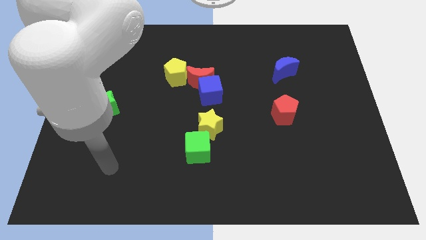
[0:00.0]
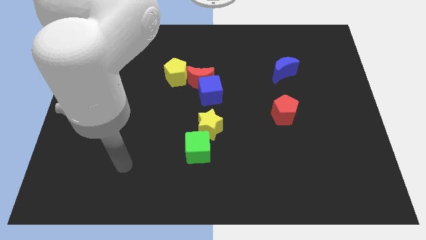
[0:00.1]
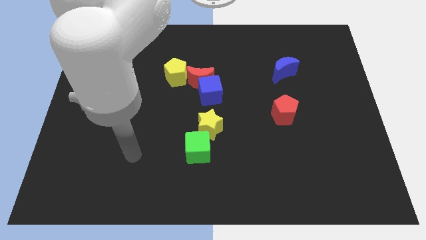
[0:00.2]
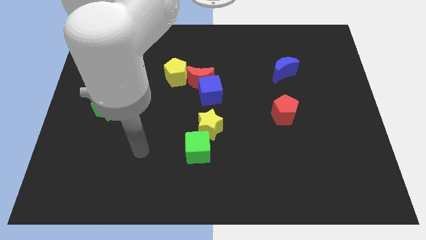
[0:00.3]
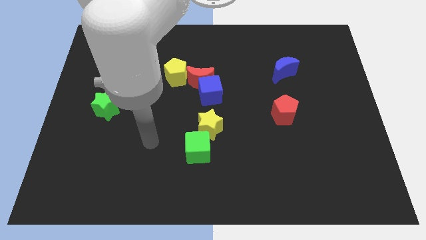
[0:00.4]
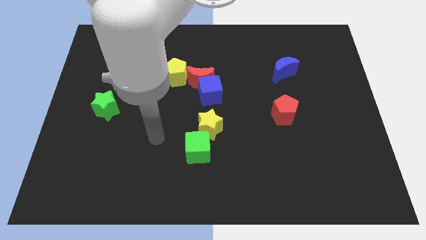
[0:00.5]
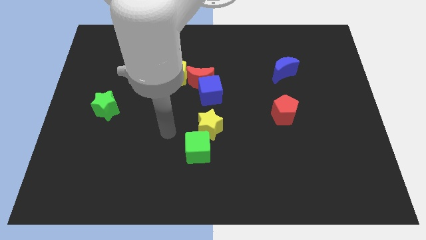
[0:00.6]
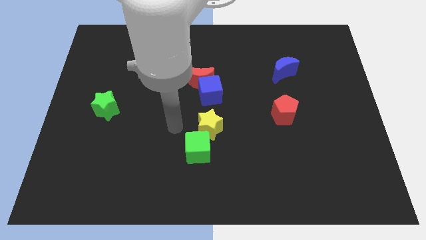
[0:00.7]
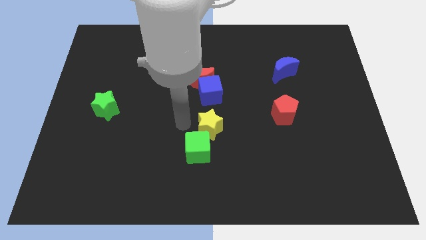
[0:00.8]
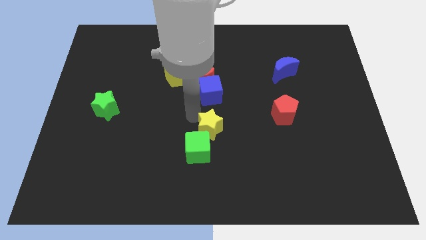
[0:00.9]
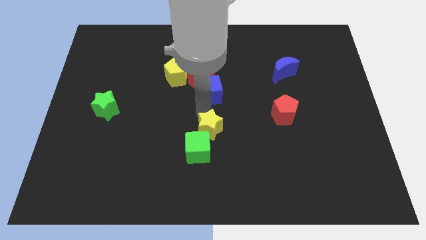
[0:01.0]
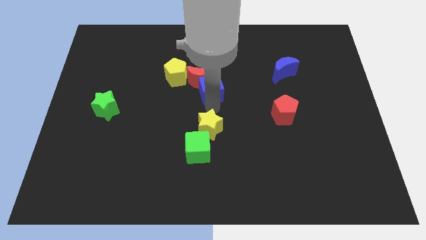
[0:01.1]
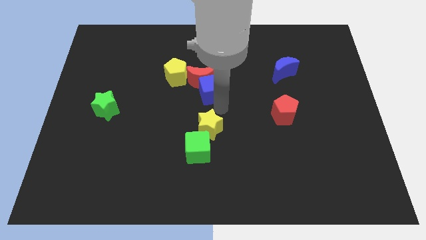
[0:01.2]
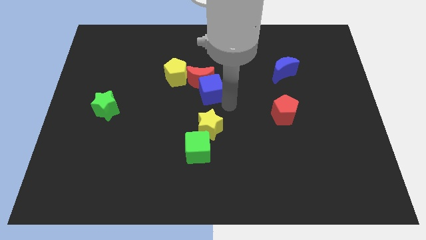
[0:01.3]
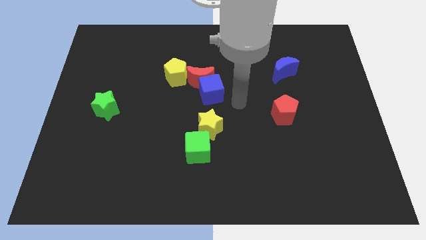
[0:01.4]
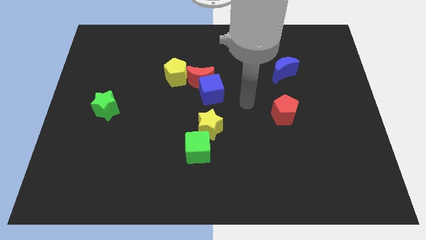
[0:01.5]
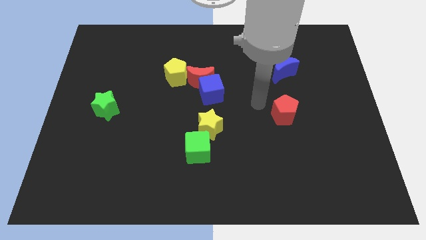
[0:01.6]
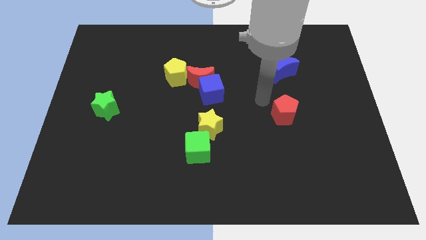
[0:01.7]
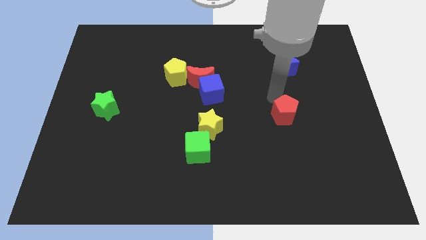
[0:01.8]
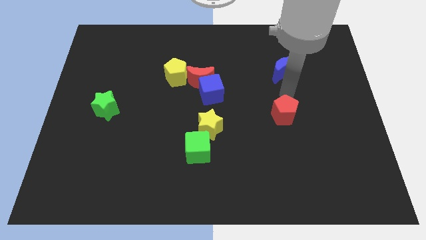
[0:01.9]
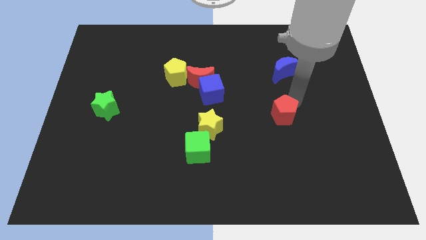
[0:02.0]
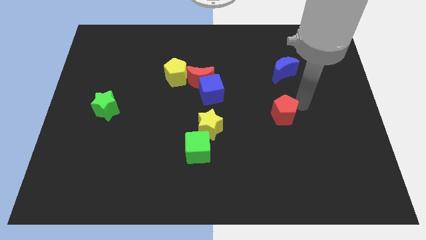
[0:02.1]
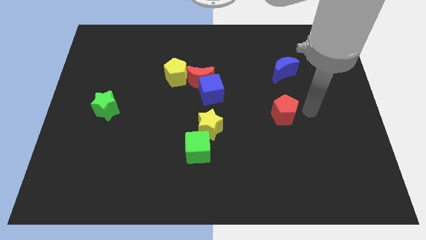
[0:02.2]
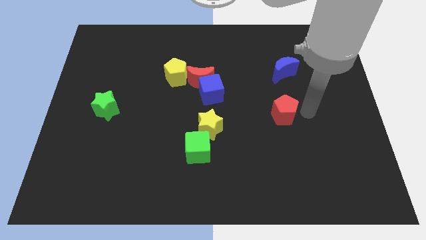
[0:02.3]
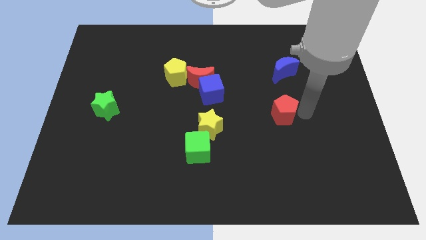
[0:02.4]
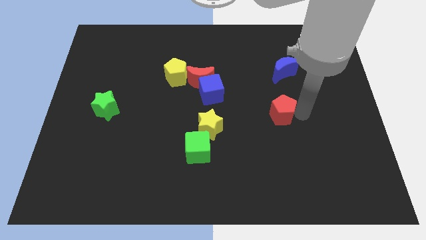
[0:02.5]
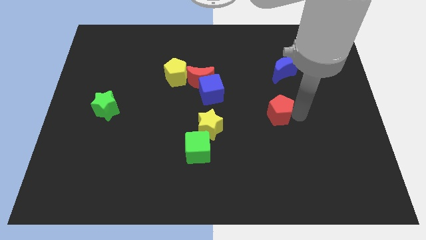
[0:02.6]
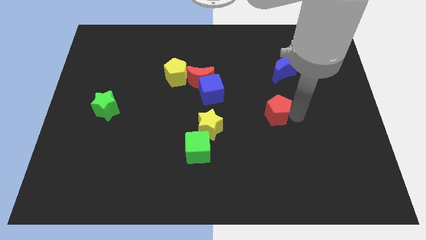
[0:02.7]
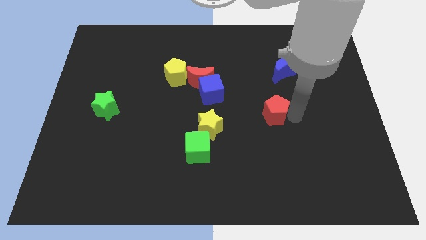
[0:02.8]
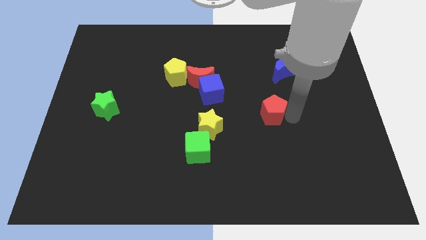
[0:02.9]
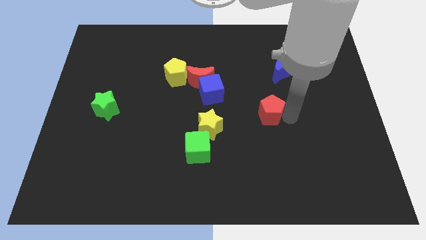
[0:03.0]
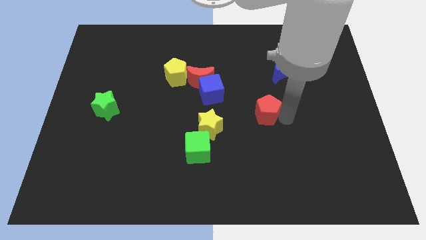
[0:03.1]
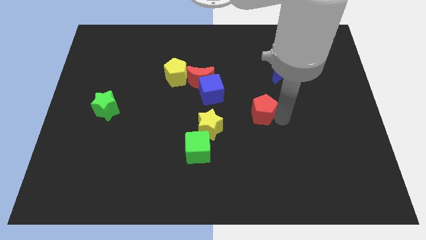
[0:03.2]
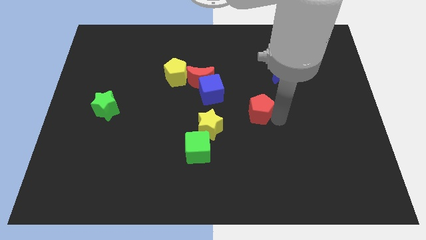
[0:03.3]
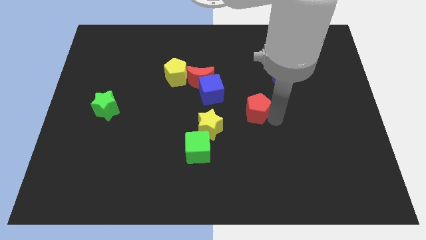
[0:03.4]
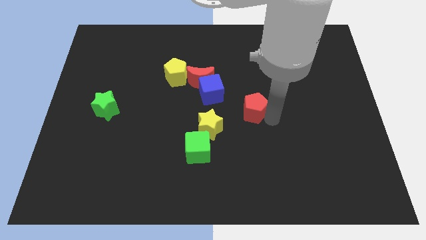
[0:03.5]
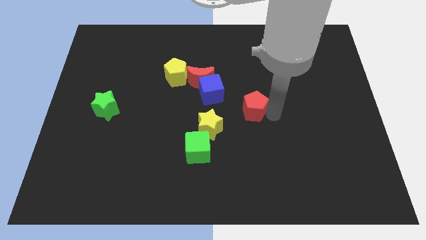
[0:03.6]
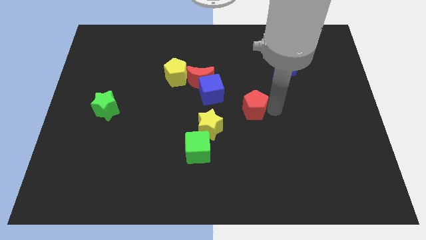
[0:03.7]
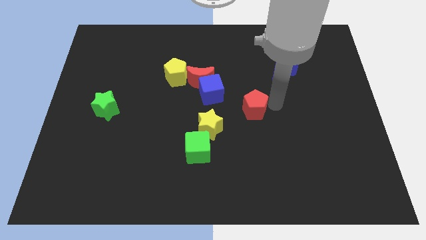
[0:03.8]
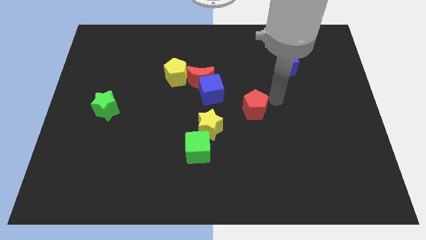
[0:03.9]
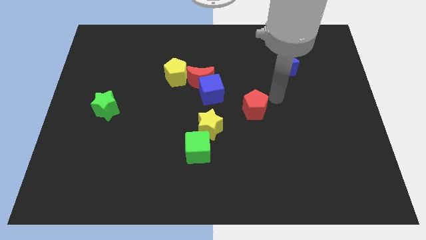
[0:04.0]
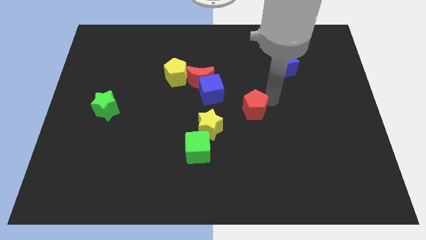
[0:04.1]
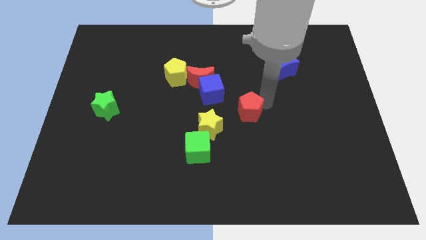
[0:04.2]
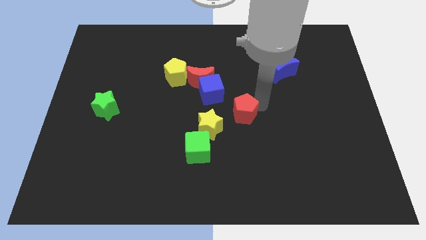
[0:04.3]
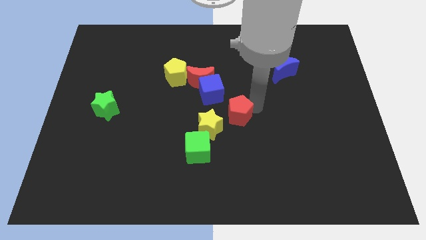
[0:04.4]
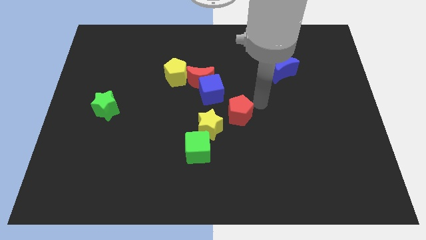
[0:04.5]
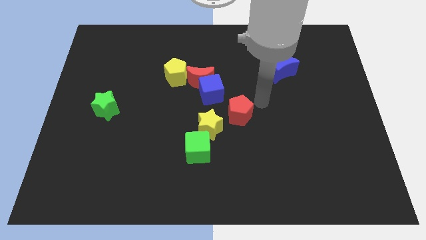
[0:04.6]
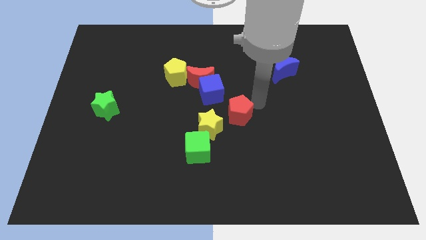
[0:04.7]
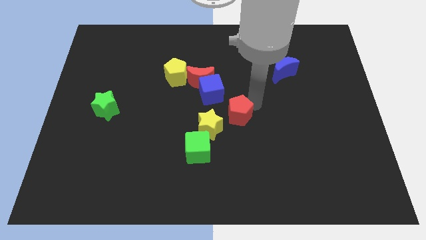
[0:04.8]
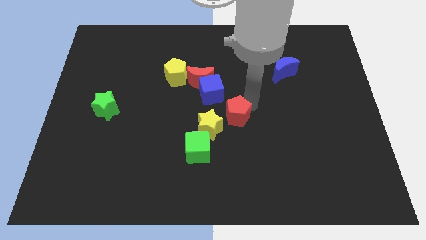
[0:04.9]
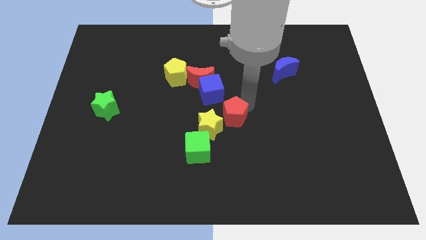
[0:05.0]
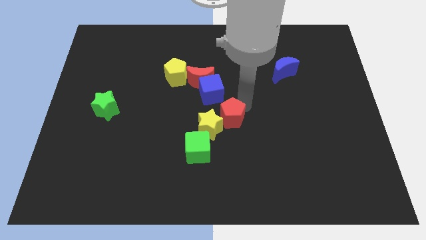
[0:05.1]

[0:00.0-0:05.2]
put the red pentagon next to the yellow star

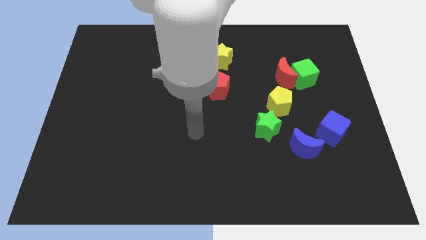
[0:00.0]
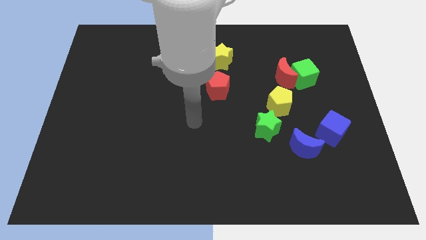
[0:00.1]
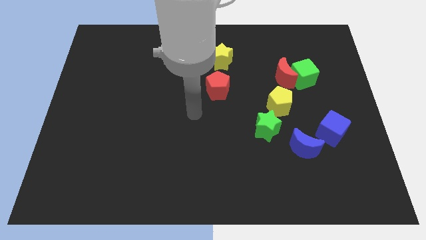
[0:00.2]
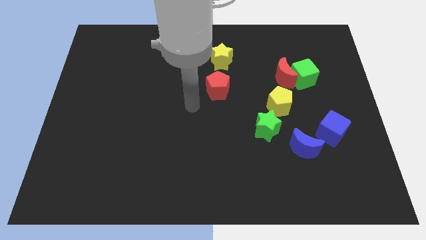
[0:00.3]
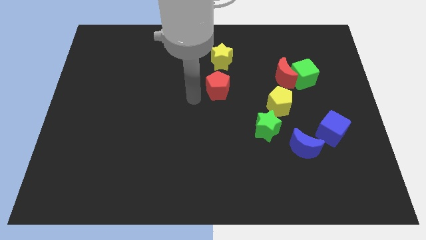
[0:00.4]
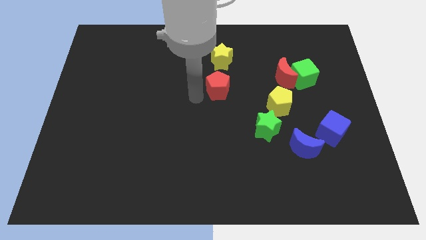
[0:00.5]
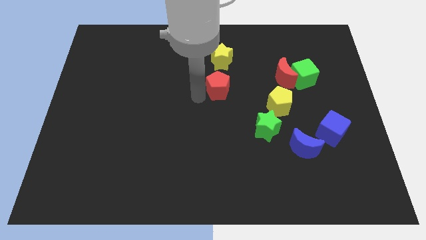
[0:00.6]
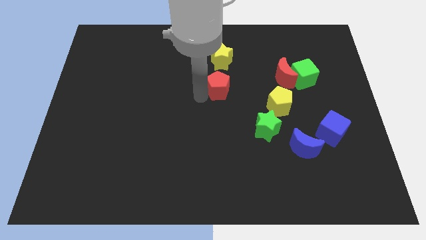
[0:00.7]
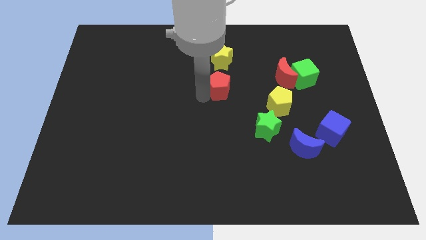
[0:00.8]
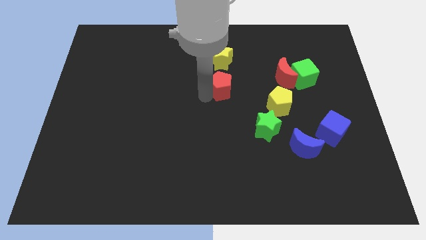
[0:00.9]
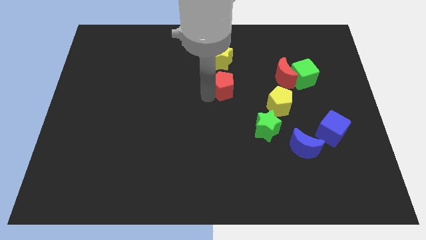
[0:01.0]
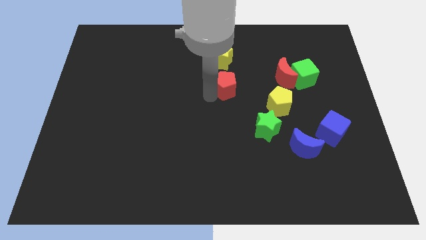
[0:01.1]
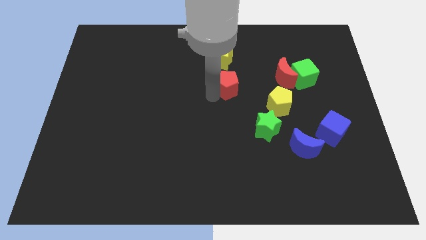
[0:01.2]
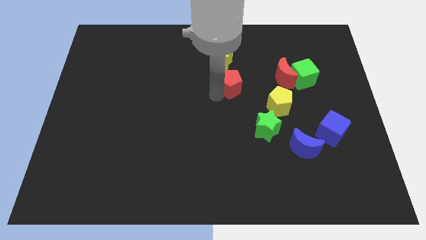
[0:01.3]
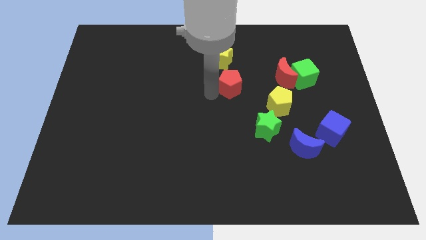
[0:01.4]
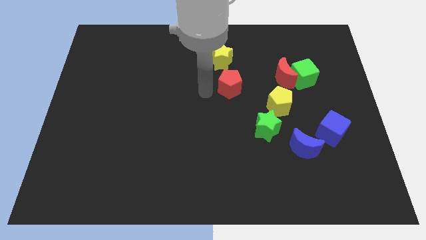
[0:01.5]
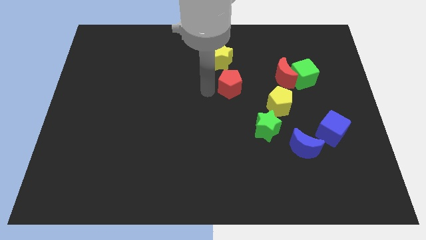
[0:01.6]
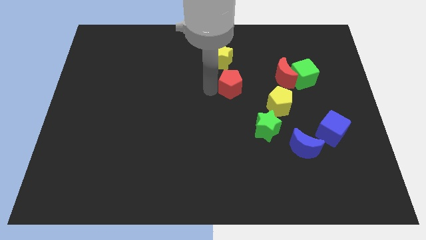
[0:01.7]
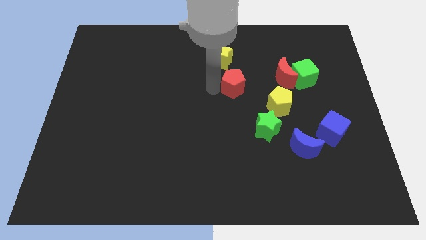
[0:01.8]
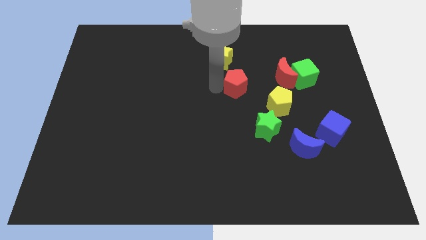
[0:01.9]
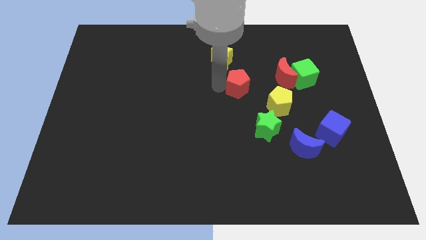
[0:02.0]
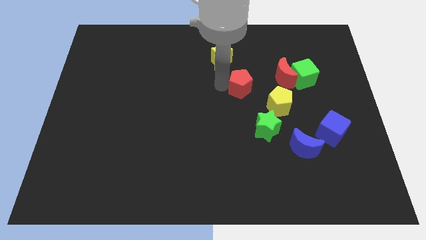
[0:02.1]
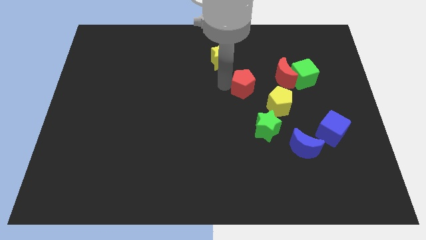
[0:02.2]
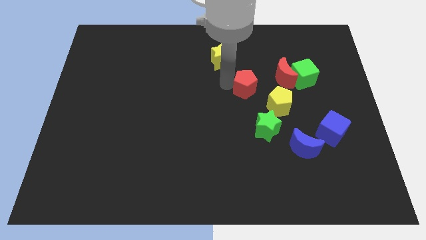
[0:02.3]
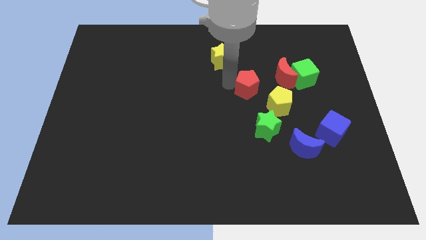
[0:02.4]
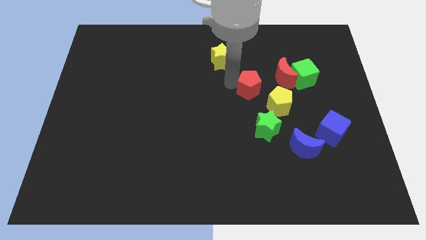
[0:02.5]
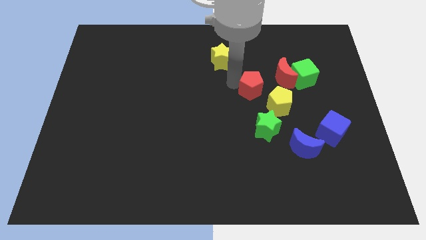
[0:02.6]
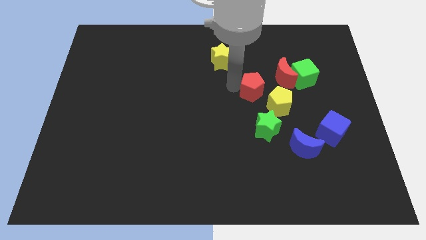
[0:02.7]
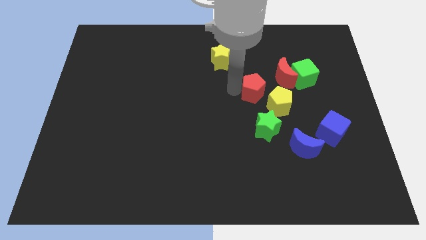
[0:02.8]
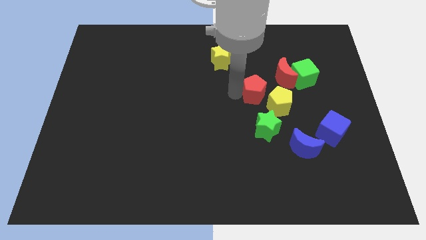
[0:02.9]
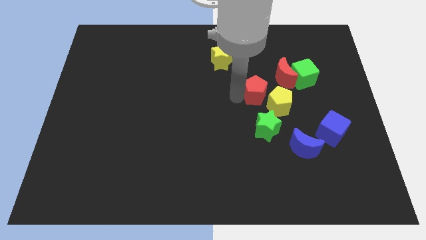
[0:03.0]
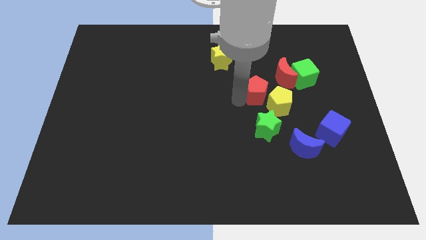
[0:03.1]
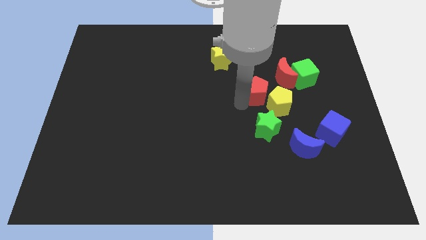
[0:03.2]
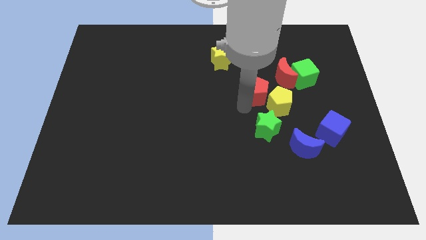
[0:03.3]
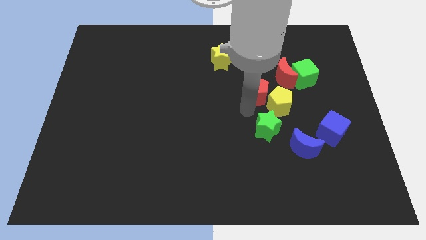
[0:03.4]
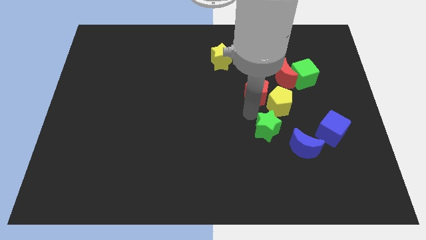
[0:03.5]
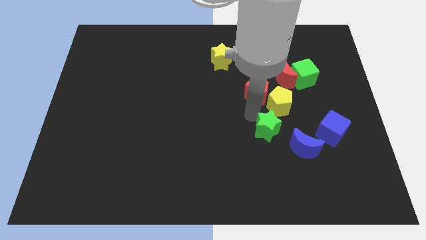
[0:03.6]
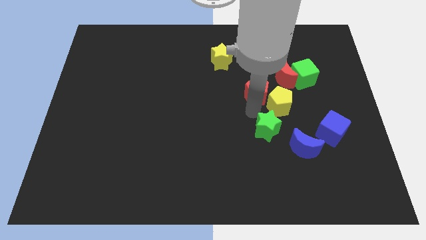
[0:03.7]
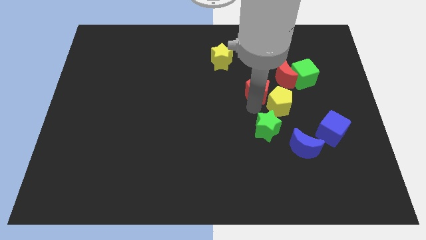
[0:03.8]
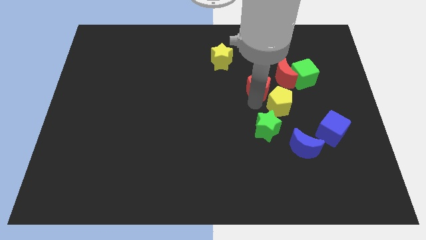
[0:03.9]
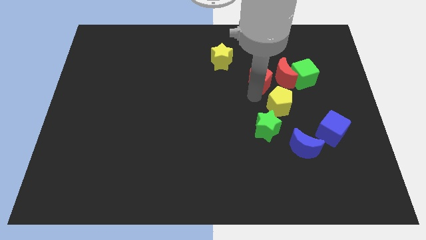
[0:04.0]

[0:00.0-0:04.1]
slide the red pentagon to the red moon
